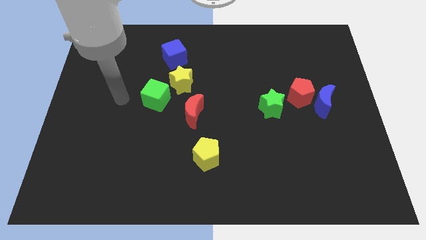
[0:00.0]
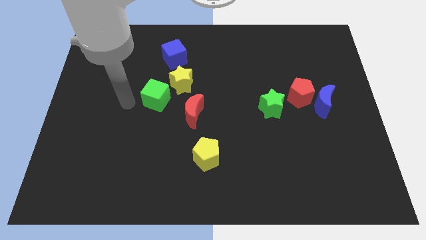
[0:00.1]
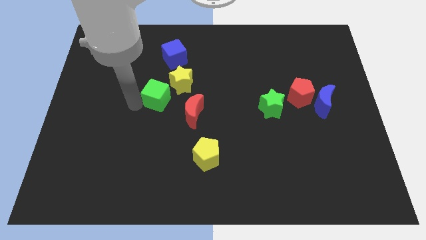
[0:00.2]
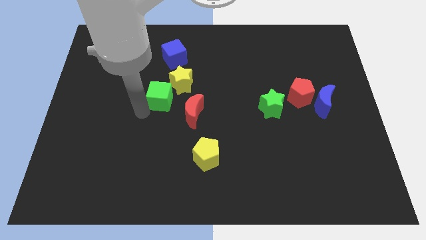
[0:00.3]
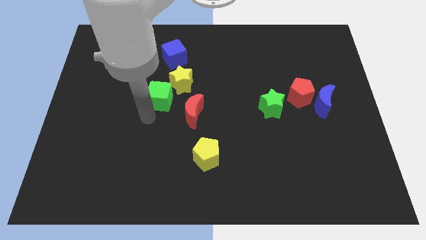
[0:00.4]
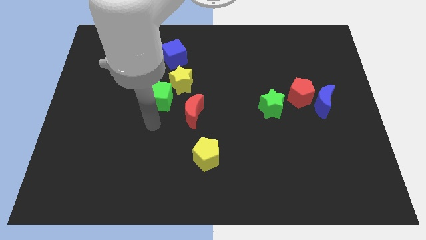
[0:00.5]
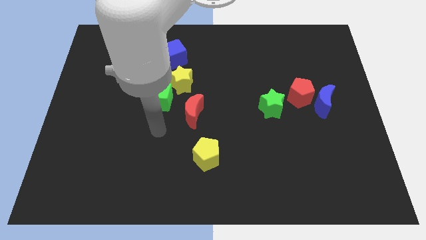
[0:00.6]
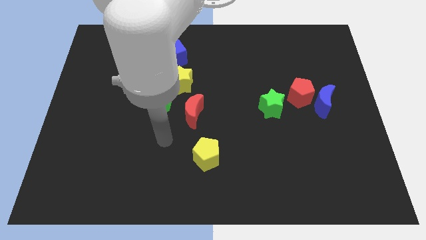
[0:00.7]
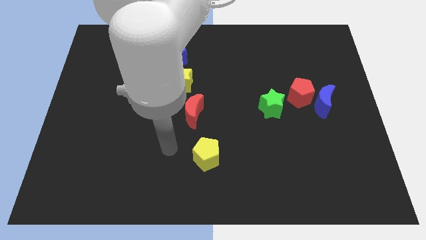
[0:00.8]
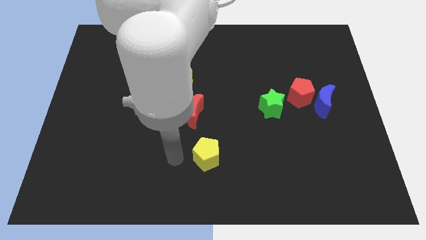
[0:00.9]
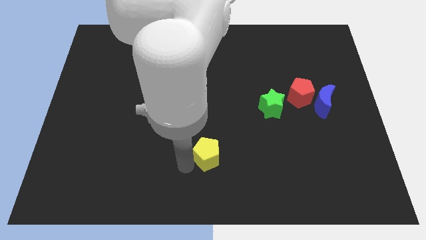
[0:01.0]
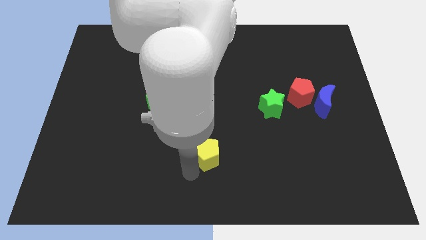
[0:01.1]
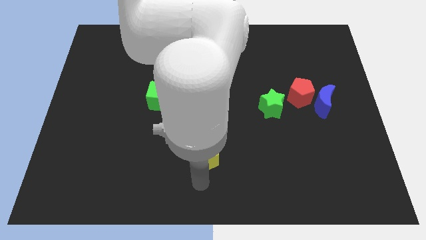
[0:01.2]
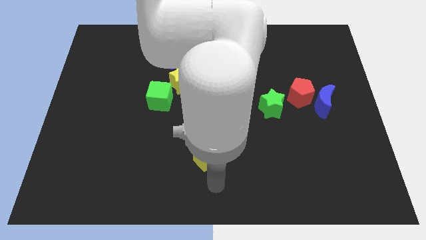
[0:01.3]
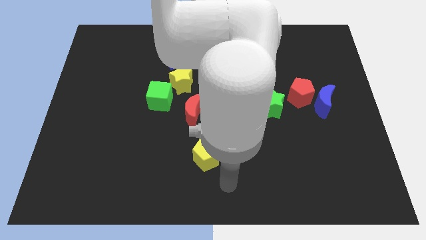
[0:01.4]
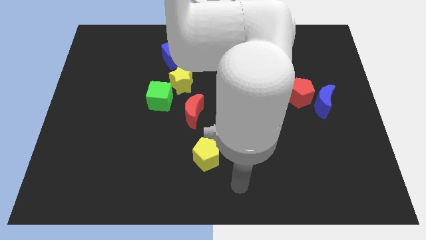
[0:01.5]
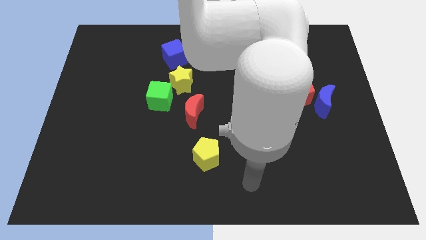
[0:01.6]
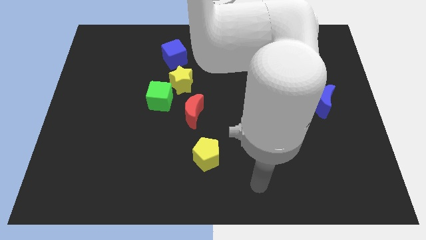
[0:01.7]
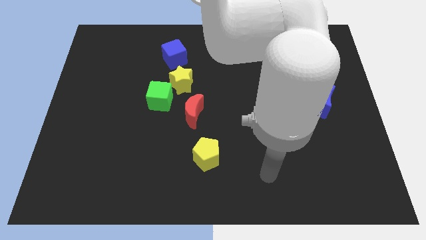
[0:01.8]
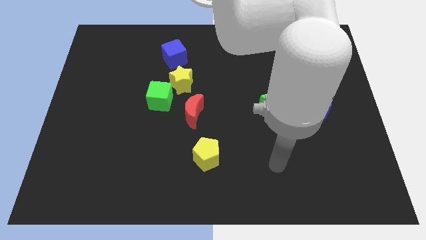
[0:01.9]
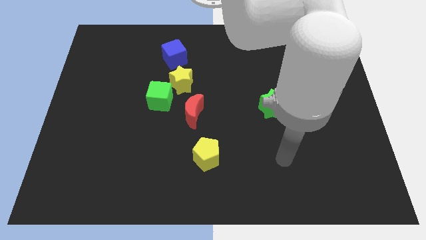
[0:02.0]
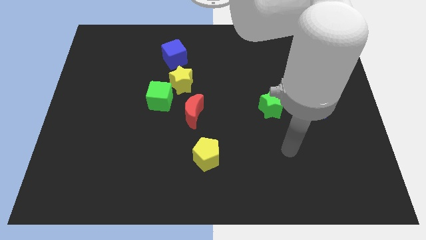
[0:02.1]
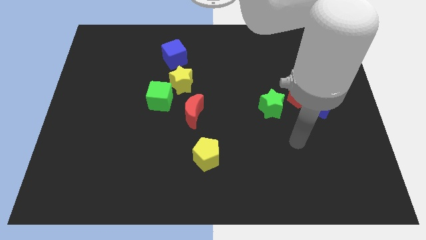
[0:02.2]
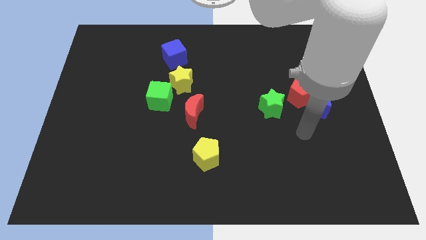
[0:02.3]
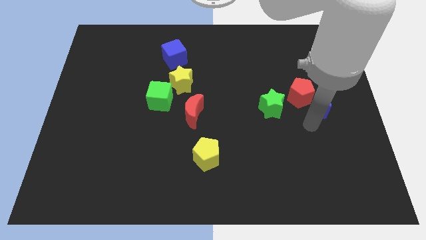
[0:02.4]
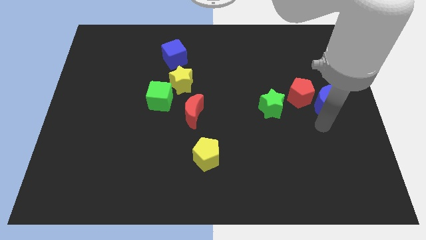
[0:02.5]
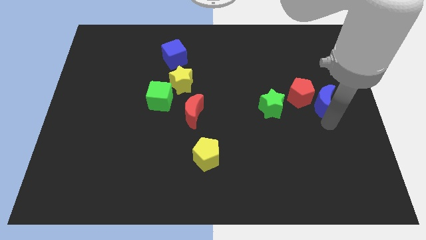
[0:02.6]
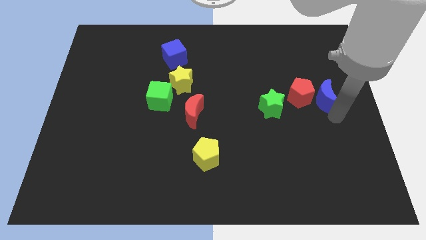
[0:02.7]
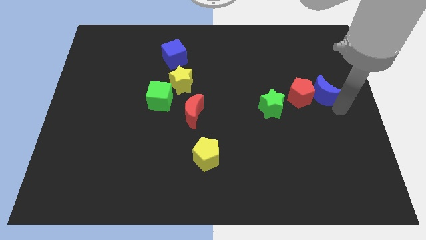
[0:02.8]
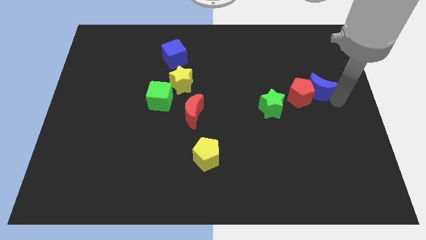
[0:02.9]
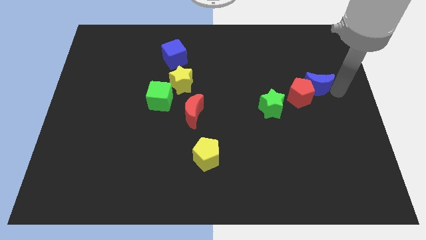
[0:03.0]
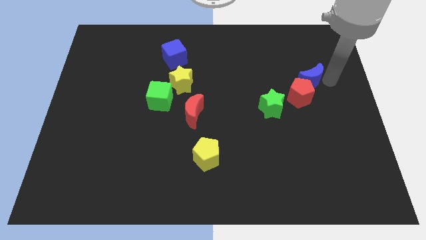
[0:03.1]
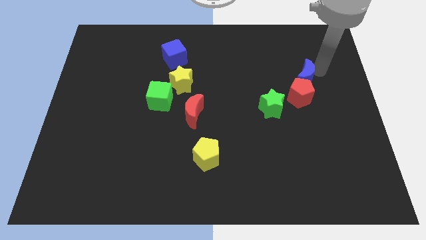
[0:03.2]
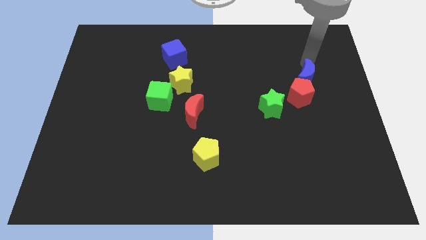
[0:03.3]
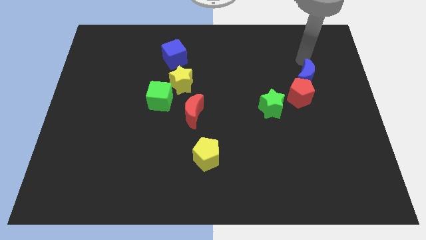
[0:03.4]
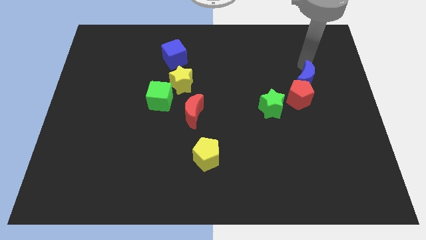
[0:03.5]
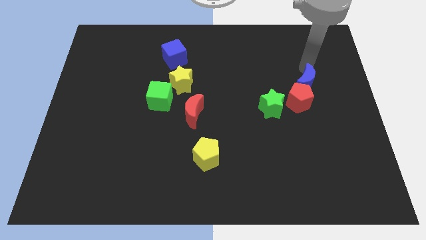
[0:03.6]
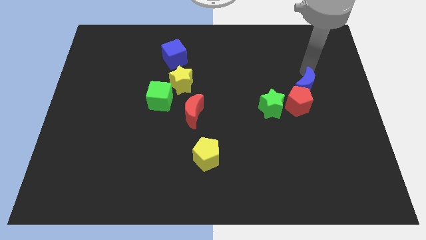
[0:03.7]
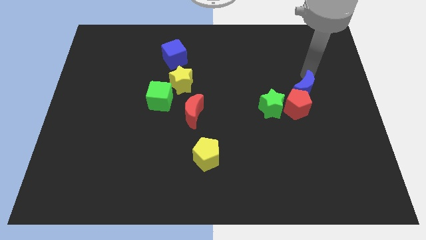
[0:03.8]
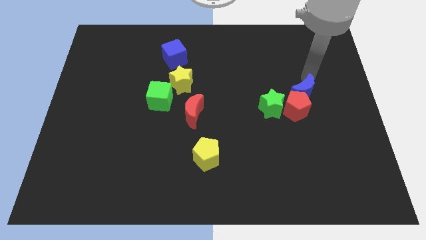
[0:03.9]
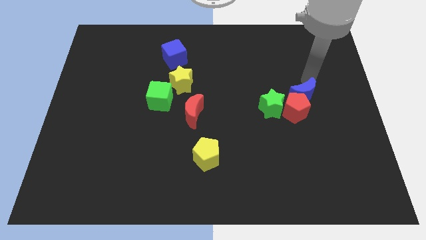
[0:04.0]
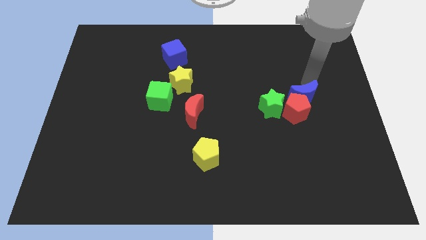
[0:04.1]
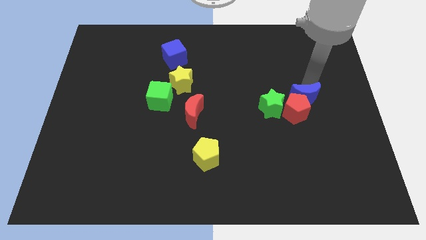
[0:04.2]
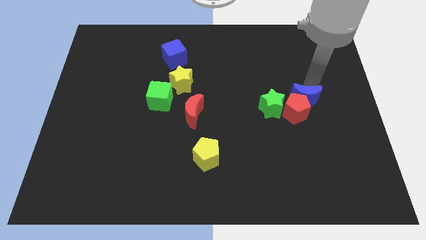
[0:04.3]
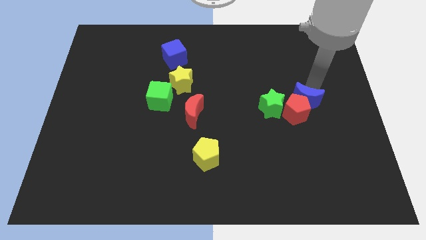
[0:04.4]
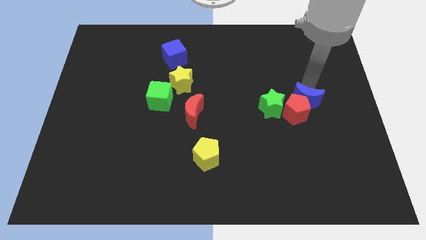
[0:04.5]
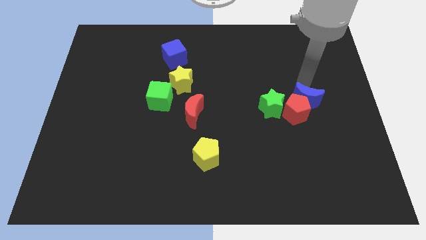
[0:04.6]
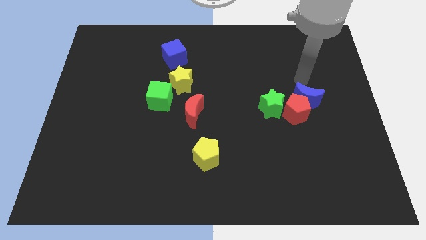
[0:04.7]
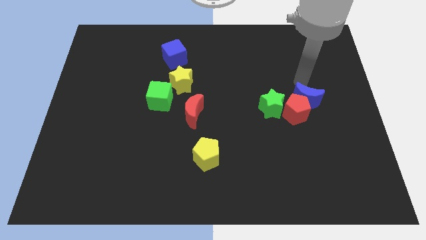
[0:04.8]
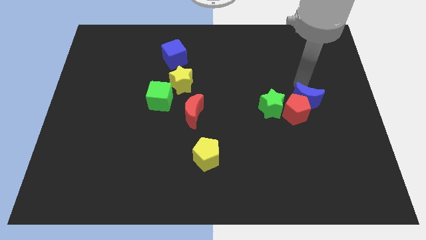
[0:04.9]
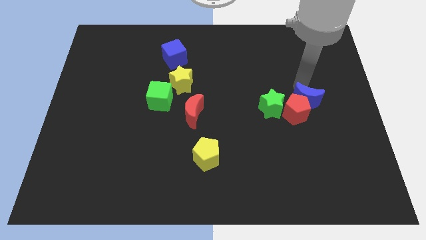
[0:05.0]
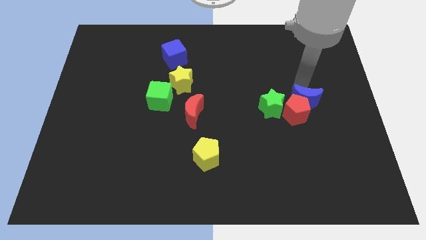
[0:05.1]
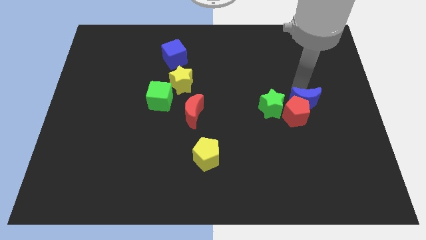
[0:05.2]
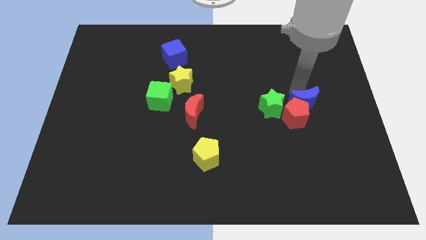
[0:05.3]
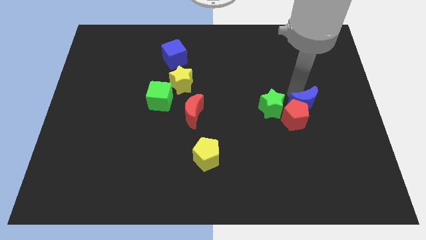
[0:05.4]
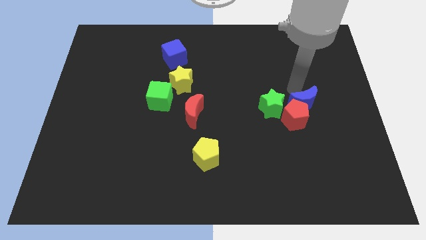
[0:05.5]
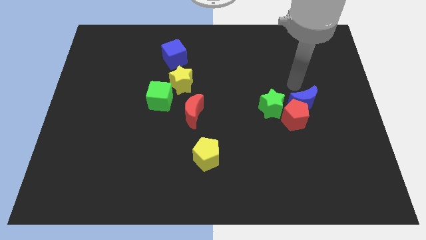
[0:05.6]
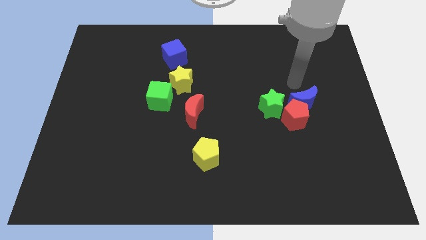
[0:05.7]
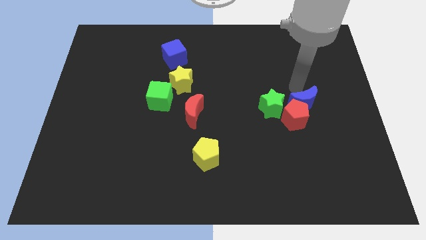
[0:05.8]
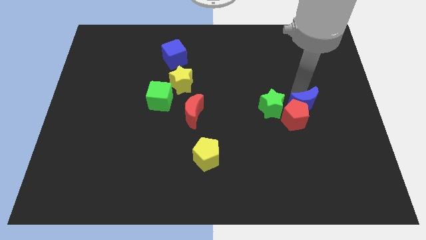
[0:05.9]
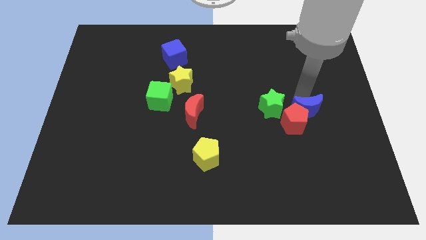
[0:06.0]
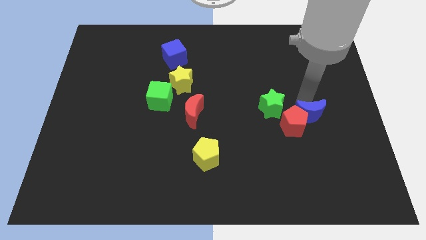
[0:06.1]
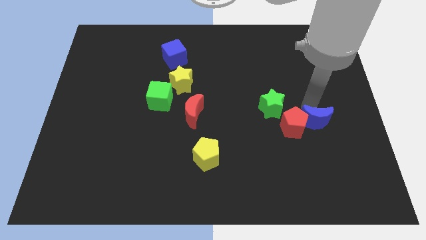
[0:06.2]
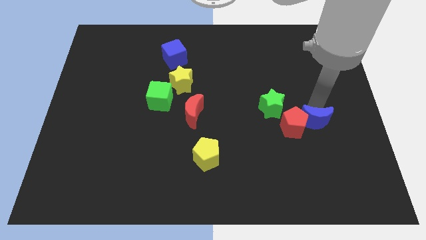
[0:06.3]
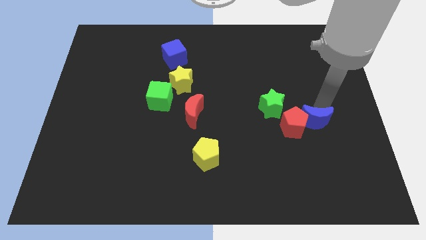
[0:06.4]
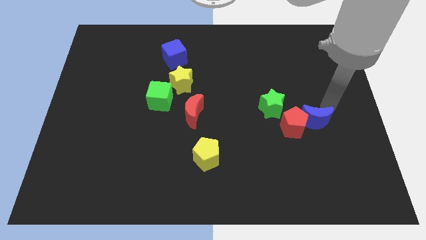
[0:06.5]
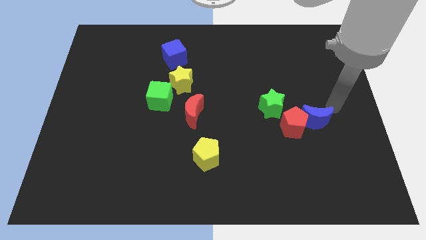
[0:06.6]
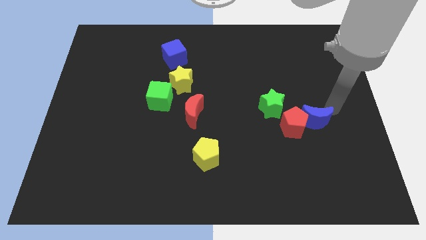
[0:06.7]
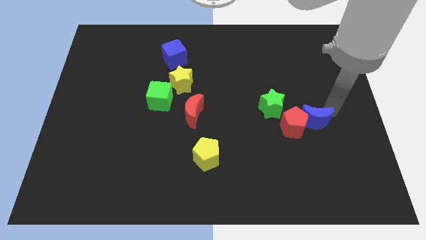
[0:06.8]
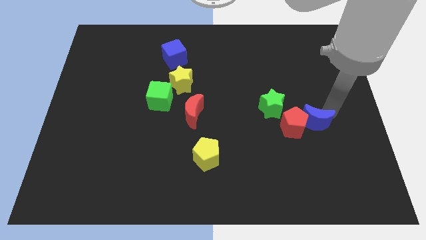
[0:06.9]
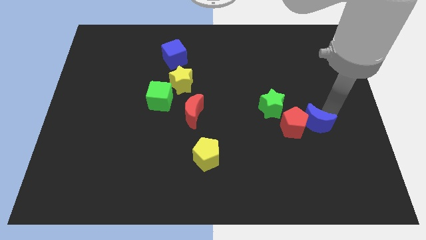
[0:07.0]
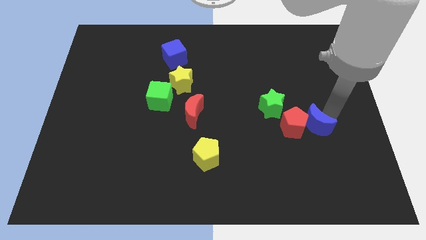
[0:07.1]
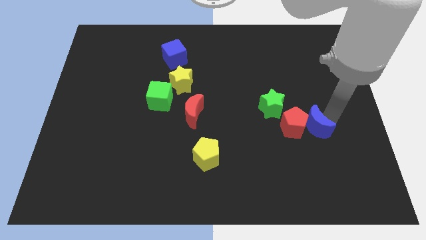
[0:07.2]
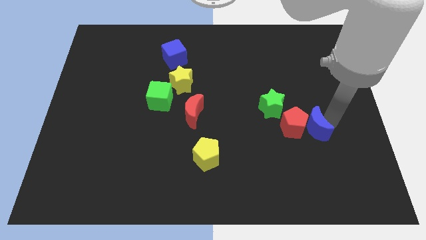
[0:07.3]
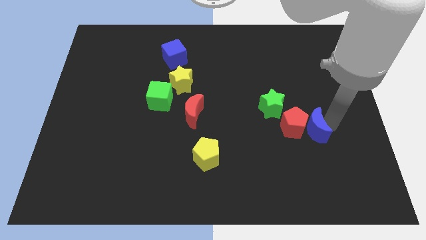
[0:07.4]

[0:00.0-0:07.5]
slightly slide the blue moon down and then to the left
